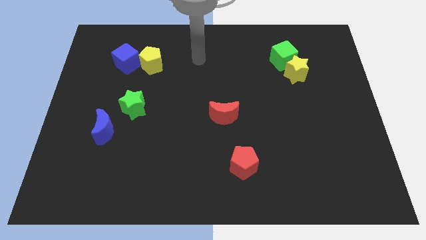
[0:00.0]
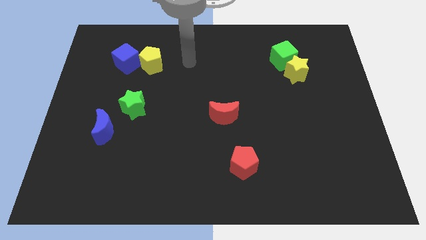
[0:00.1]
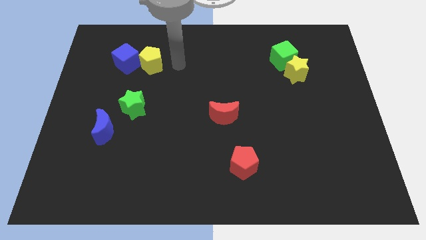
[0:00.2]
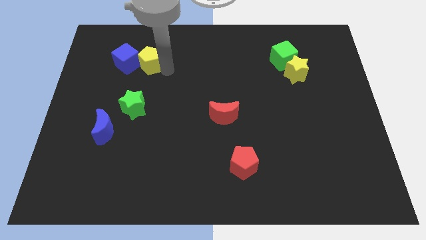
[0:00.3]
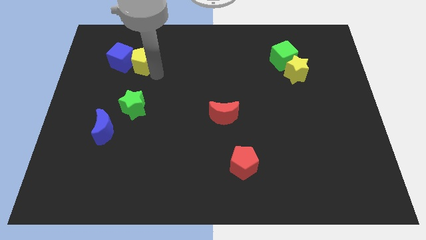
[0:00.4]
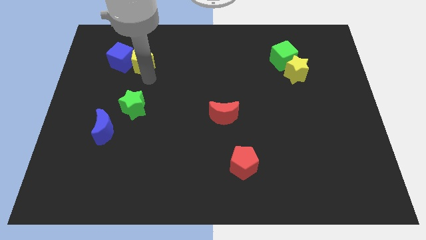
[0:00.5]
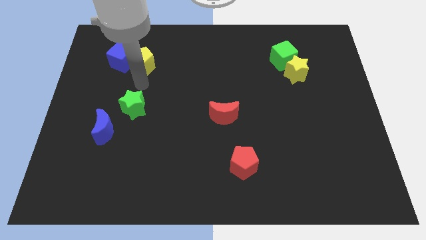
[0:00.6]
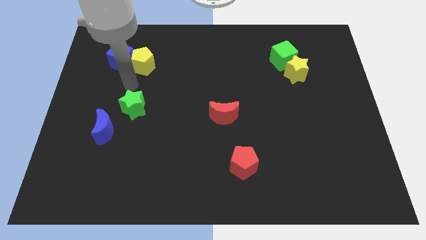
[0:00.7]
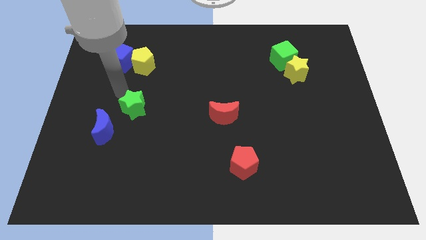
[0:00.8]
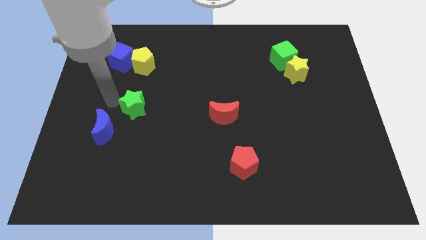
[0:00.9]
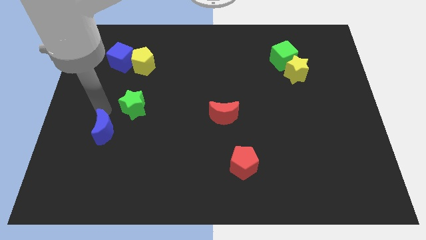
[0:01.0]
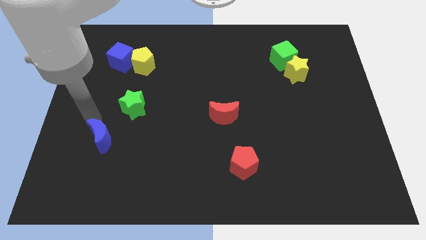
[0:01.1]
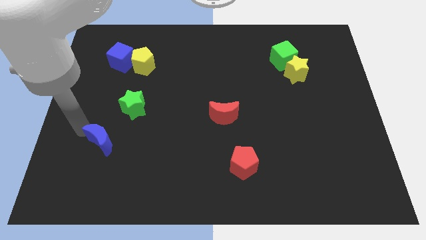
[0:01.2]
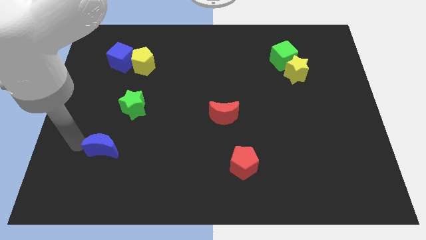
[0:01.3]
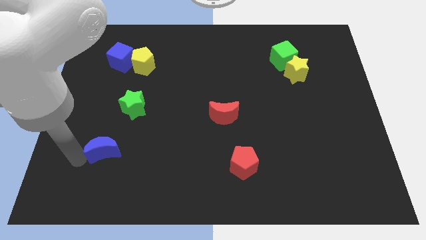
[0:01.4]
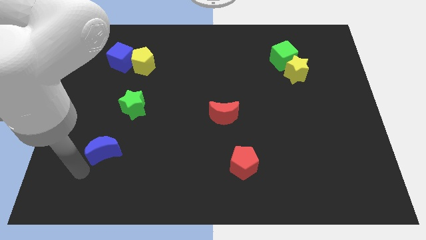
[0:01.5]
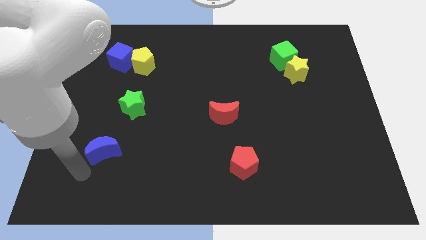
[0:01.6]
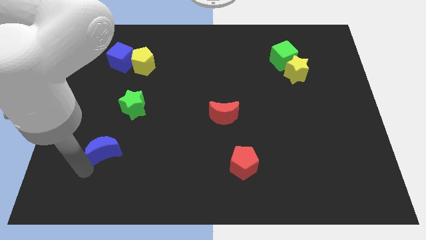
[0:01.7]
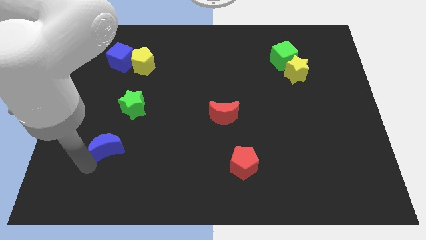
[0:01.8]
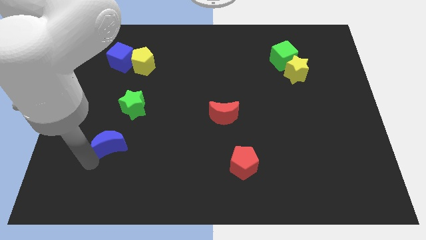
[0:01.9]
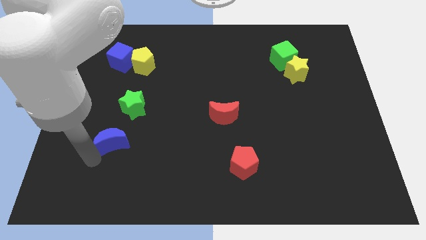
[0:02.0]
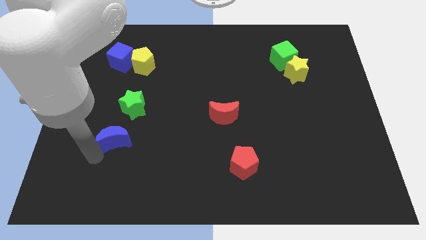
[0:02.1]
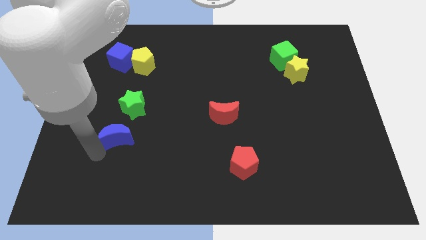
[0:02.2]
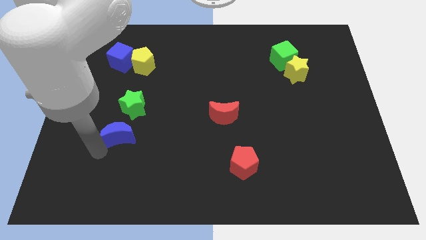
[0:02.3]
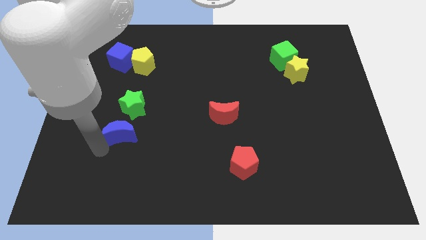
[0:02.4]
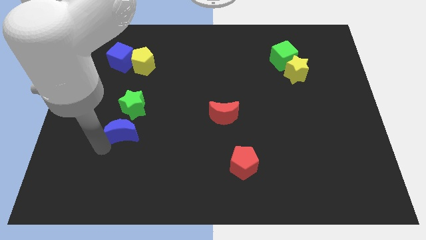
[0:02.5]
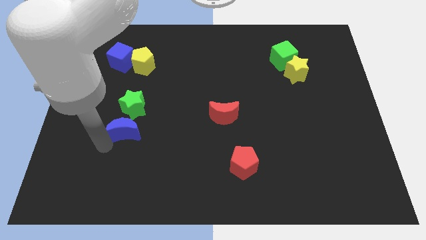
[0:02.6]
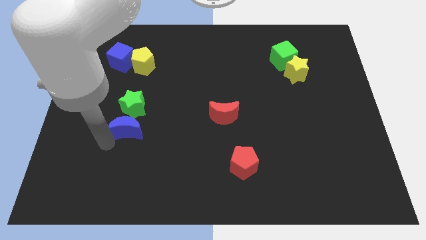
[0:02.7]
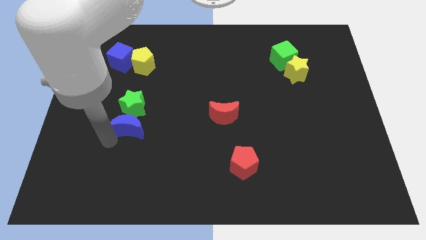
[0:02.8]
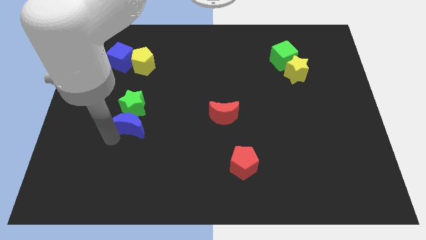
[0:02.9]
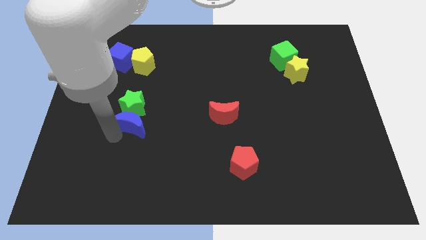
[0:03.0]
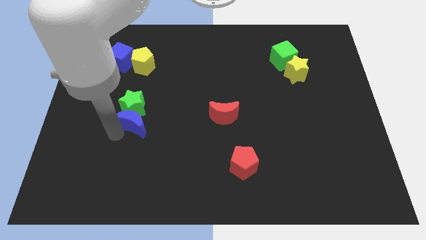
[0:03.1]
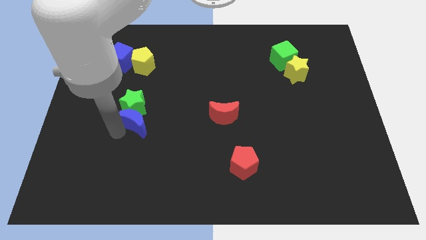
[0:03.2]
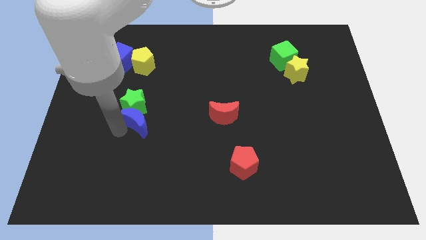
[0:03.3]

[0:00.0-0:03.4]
push the blue moon to the right slightly

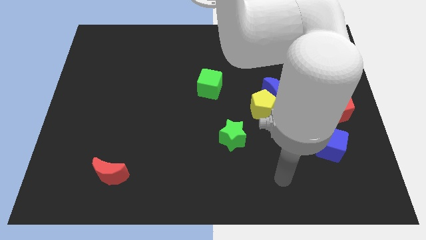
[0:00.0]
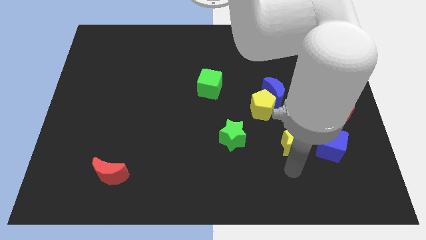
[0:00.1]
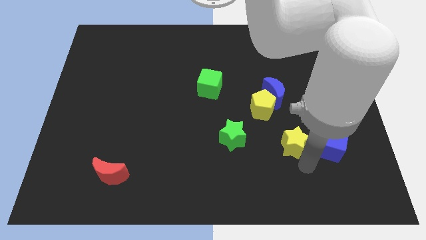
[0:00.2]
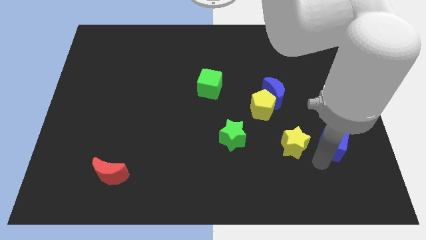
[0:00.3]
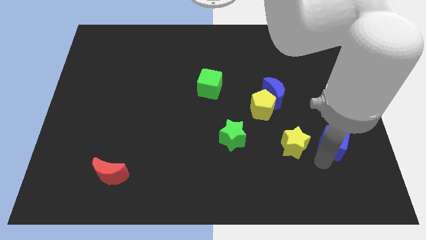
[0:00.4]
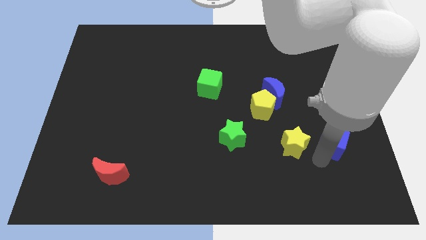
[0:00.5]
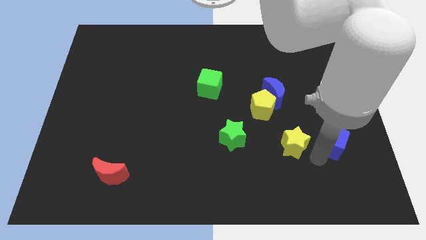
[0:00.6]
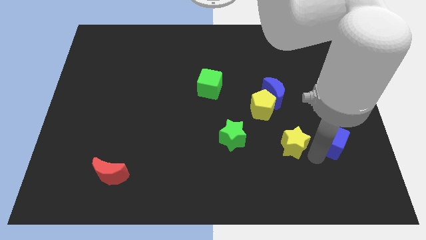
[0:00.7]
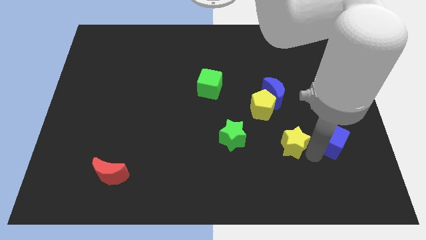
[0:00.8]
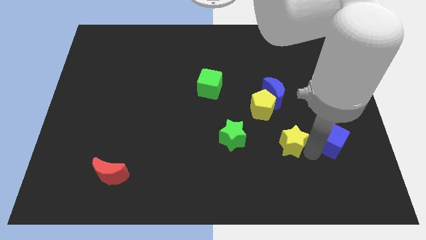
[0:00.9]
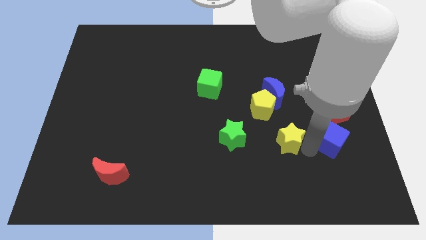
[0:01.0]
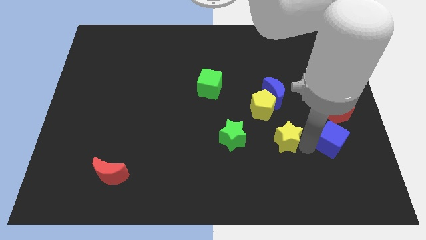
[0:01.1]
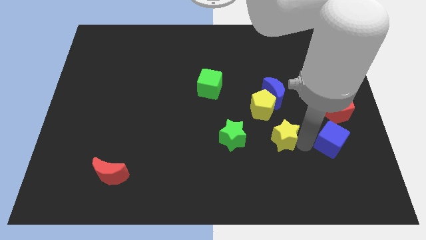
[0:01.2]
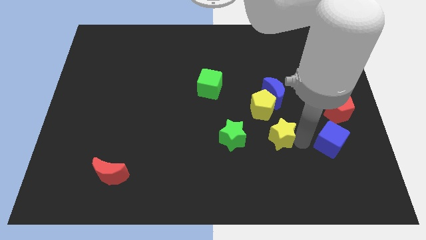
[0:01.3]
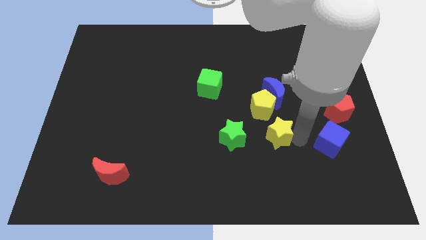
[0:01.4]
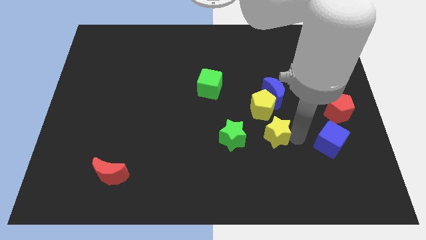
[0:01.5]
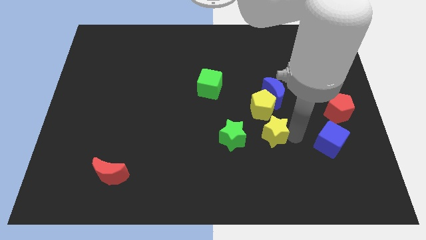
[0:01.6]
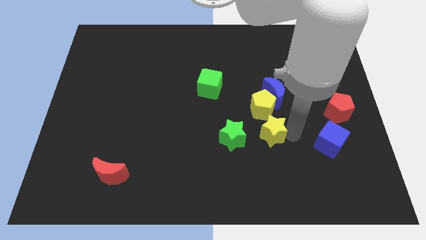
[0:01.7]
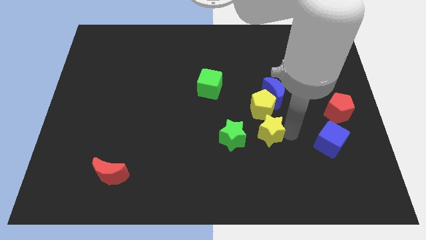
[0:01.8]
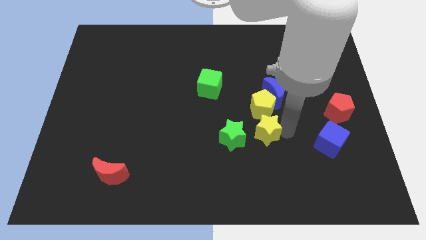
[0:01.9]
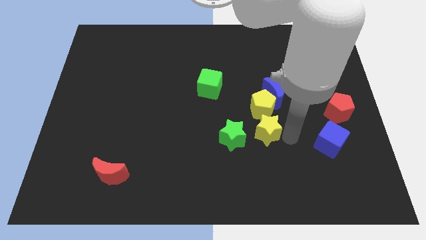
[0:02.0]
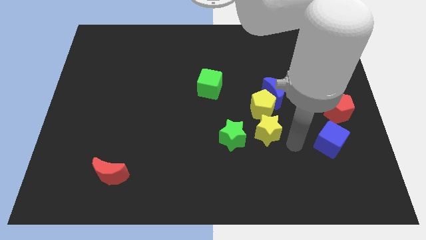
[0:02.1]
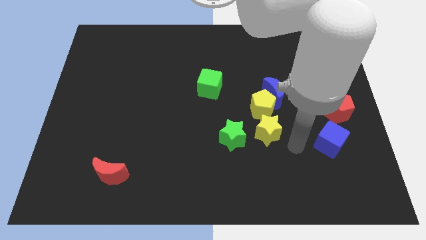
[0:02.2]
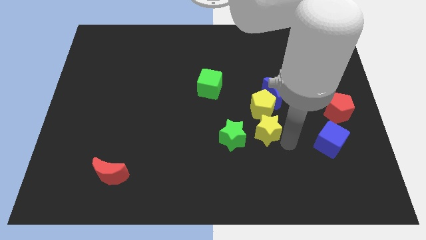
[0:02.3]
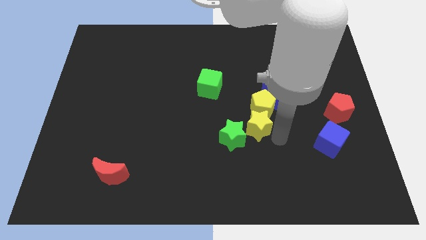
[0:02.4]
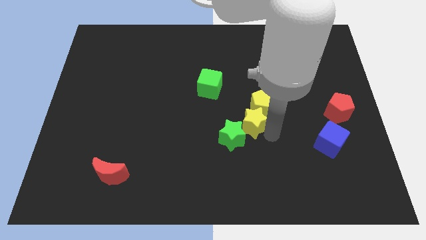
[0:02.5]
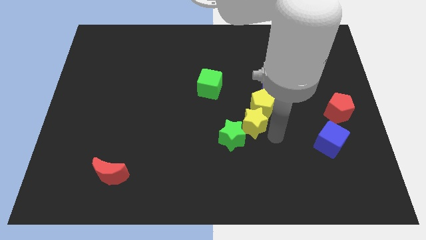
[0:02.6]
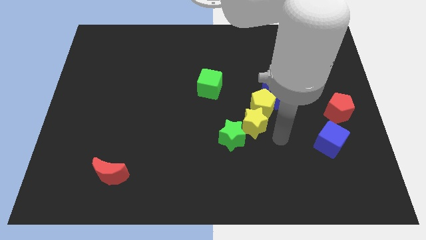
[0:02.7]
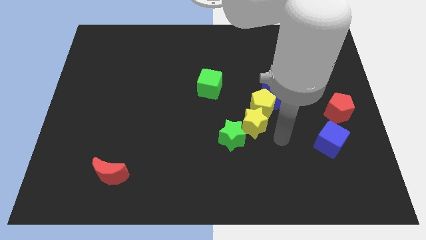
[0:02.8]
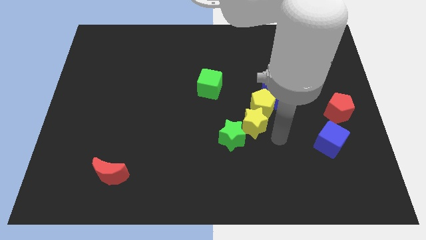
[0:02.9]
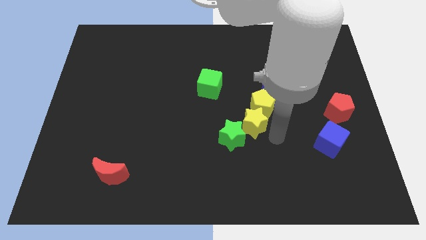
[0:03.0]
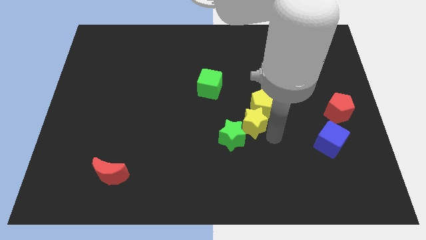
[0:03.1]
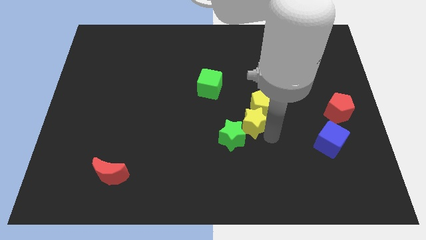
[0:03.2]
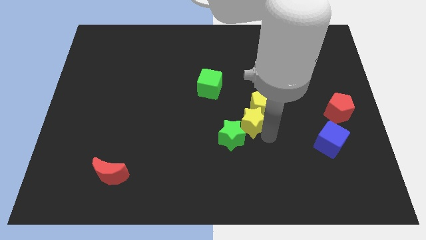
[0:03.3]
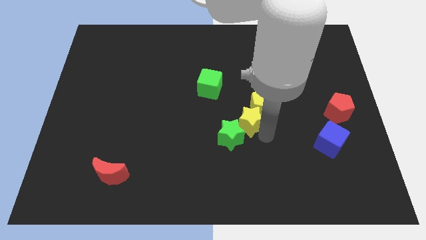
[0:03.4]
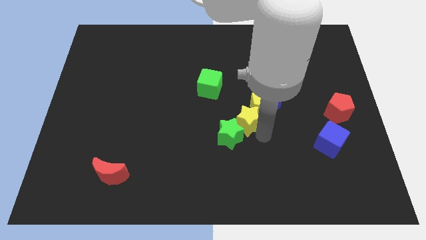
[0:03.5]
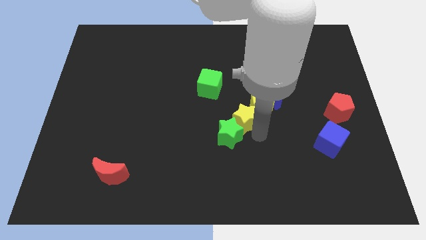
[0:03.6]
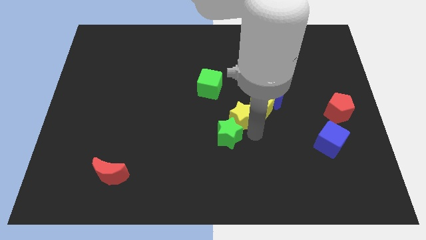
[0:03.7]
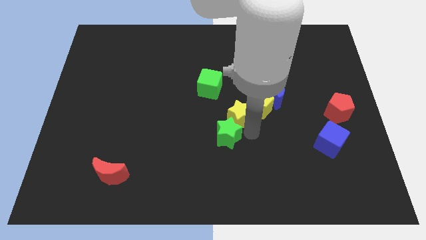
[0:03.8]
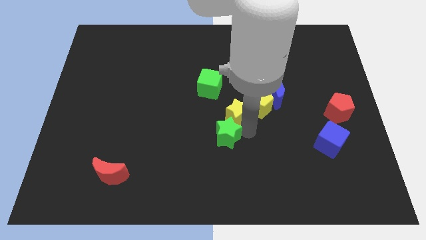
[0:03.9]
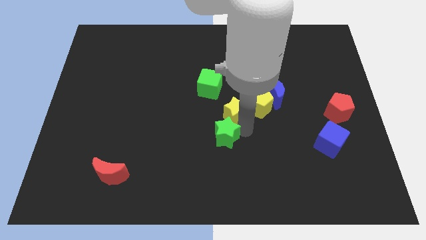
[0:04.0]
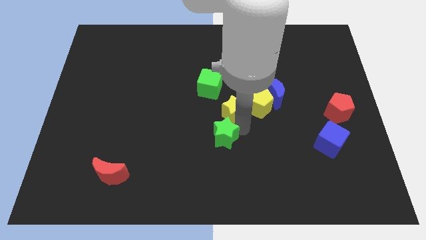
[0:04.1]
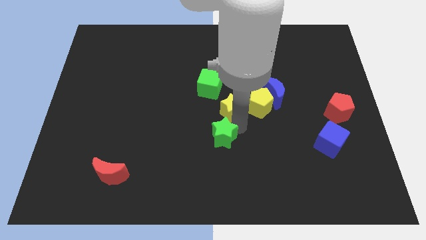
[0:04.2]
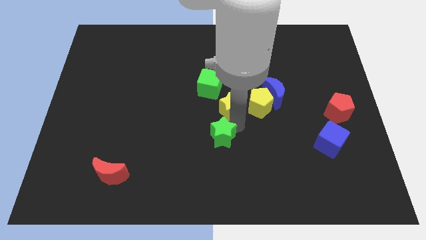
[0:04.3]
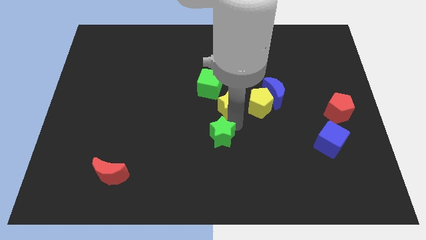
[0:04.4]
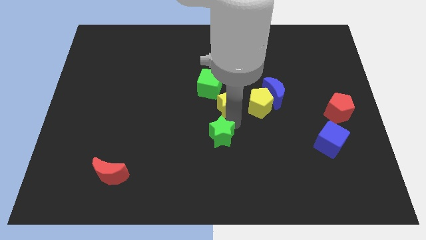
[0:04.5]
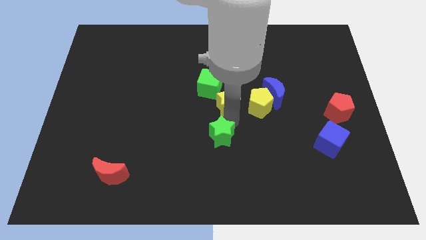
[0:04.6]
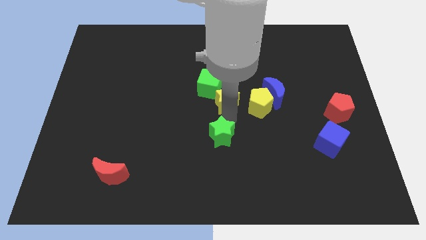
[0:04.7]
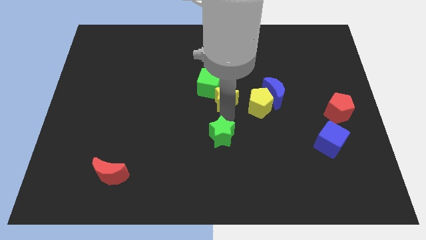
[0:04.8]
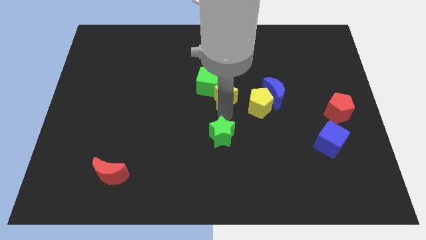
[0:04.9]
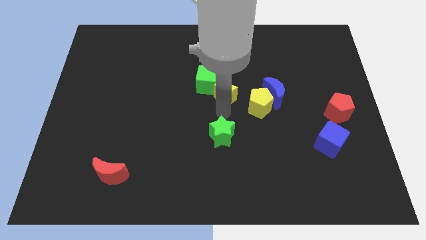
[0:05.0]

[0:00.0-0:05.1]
push the yellow star upwards and to the left
